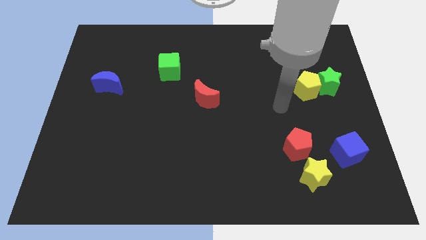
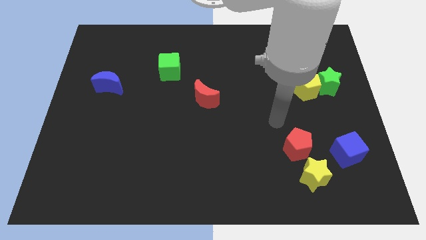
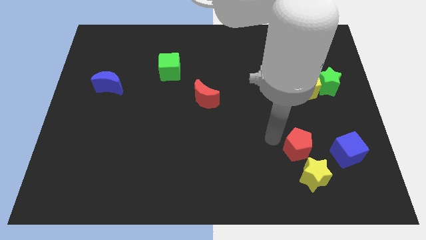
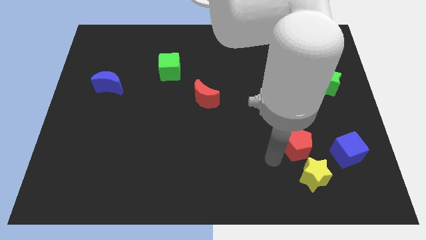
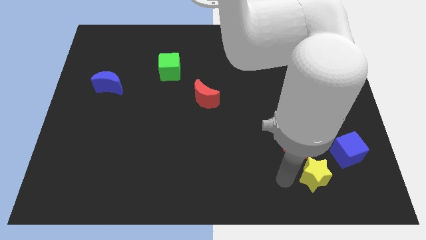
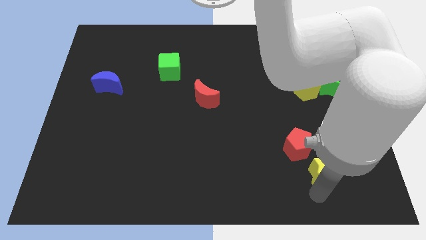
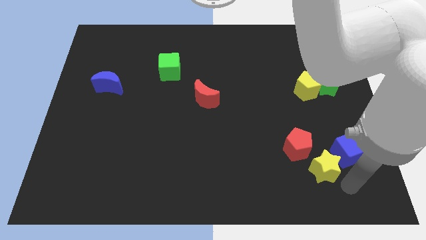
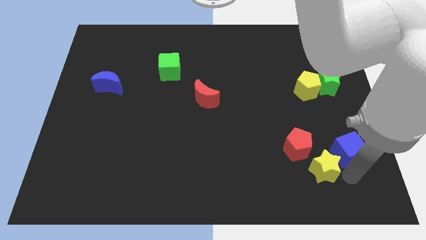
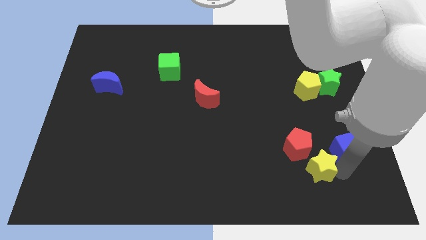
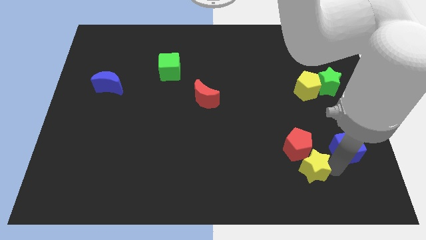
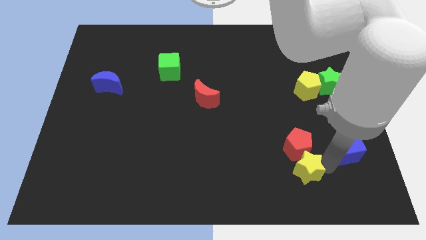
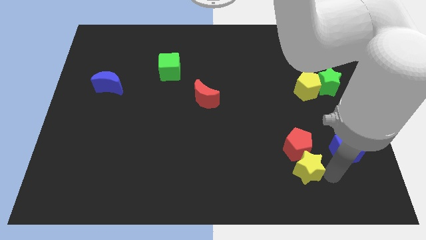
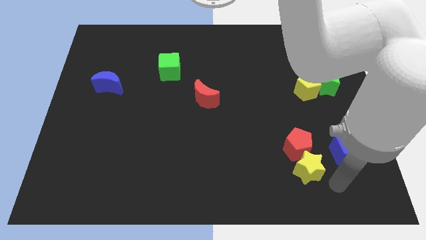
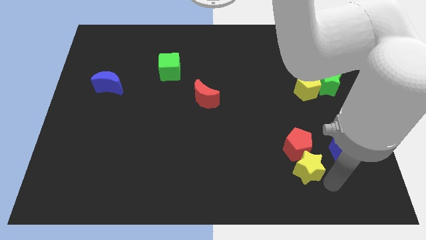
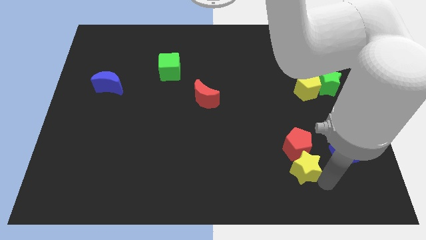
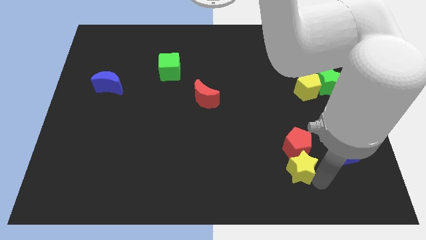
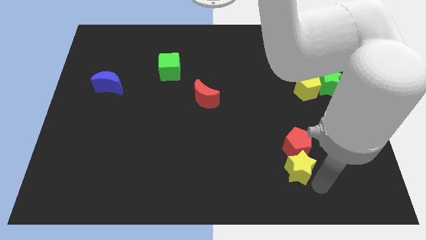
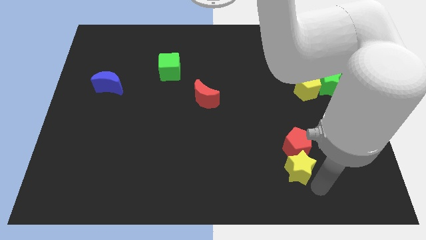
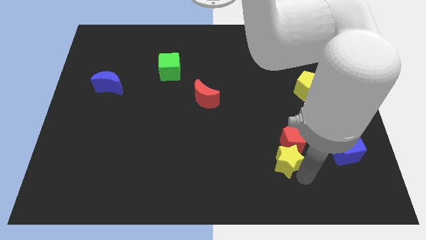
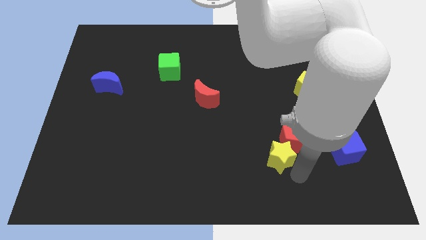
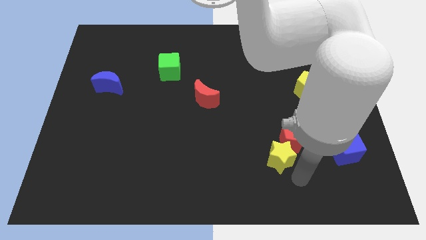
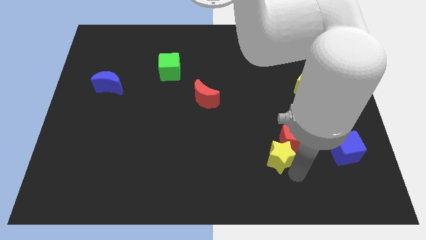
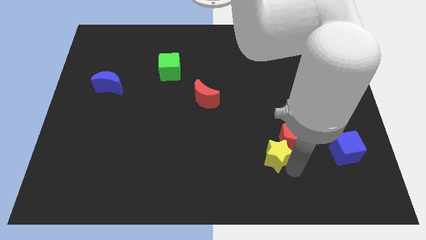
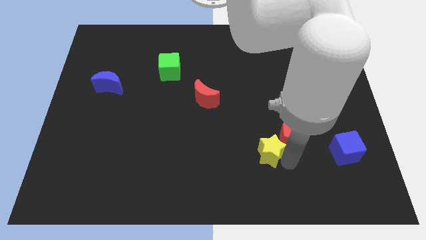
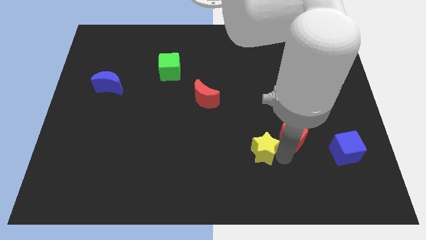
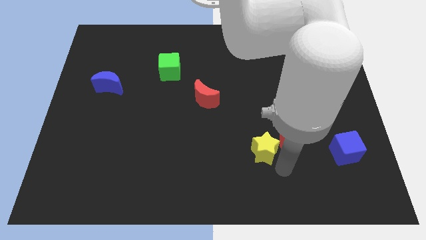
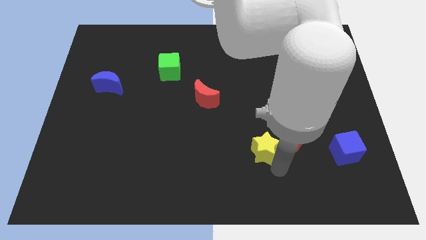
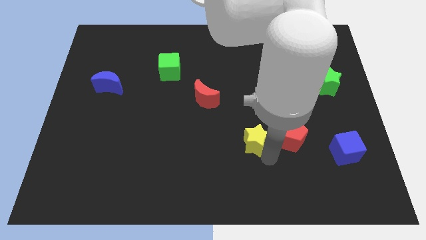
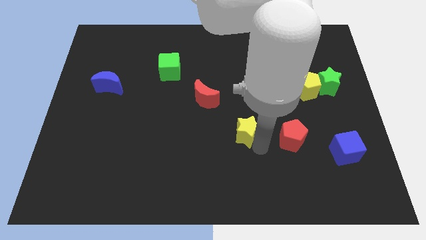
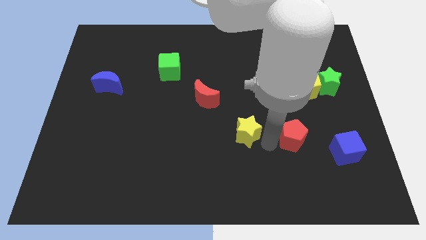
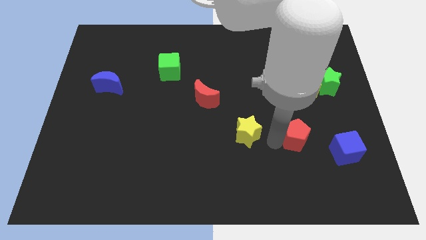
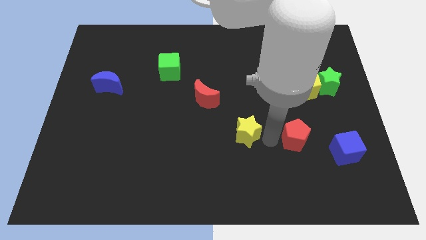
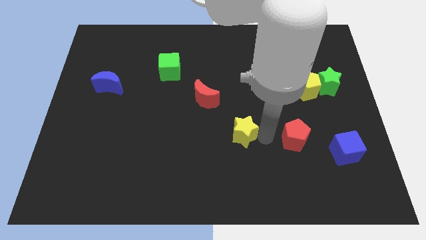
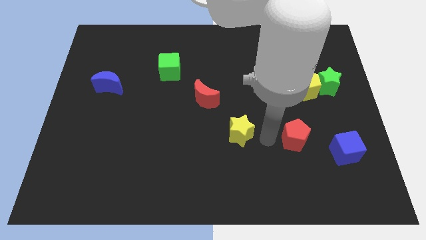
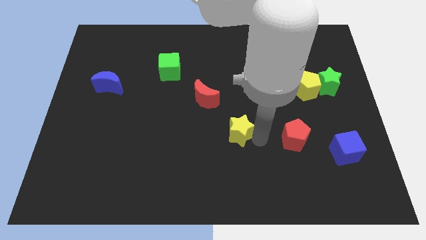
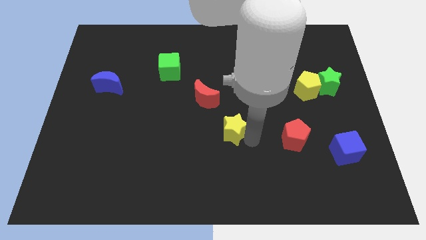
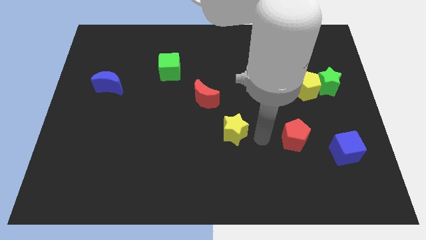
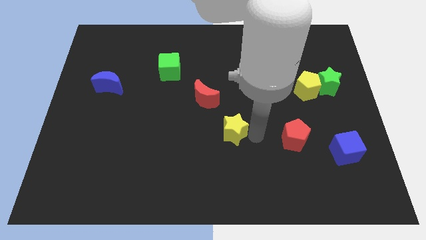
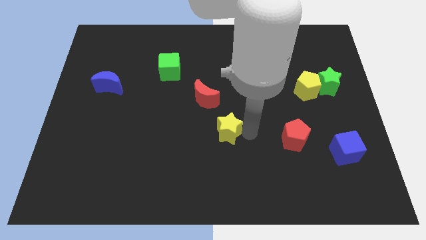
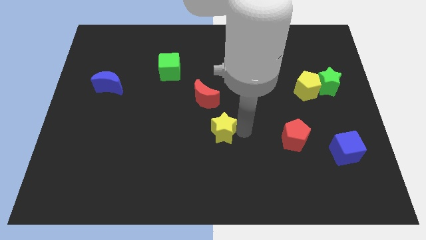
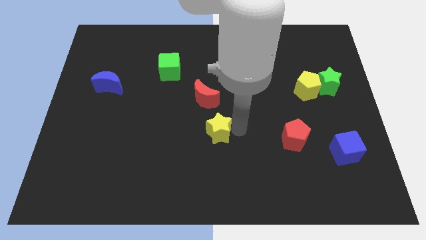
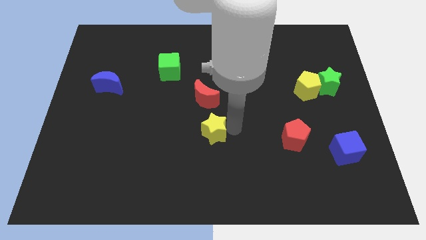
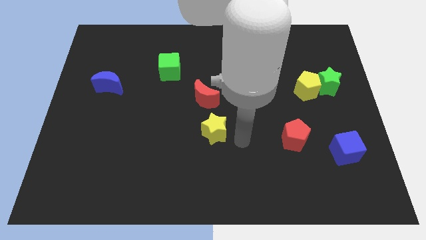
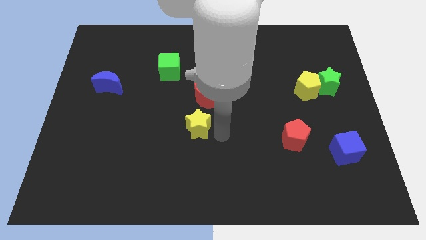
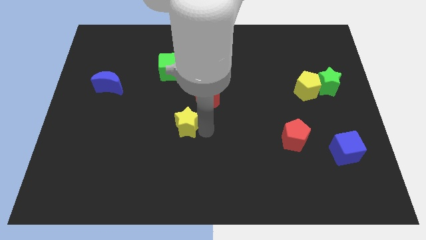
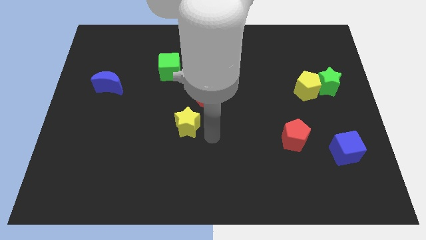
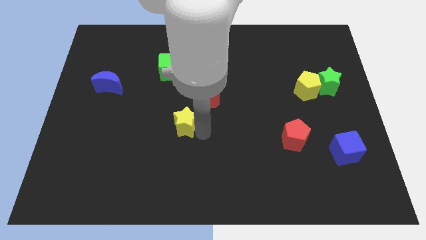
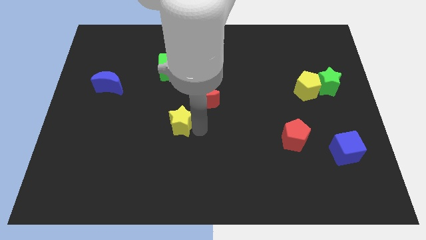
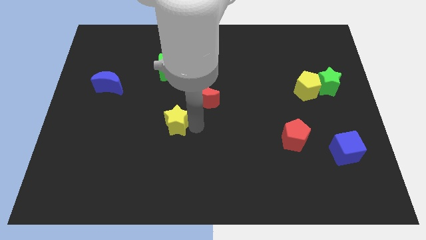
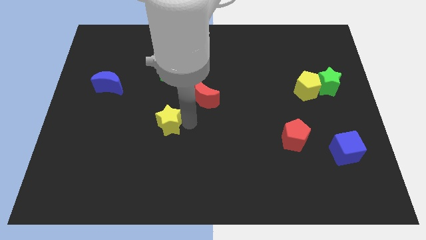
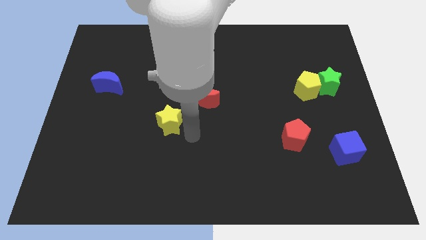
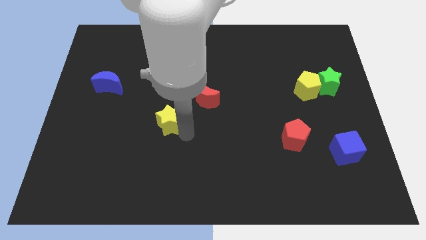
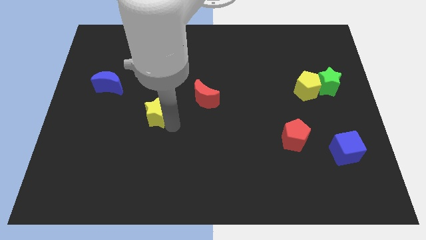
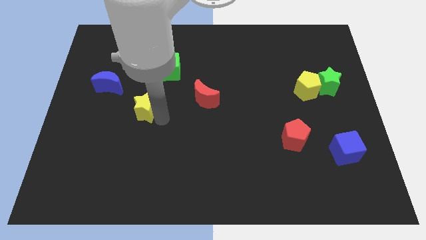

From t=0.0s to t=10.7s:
slide the yellow star to the bottom right side of the blue moon

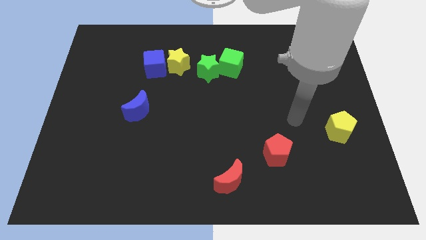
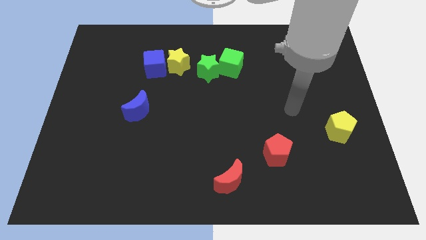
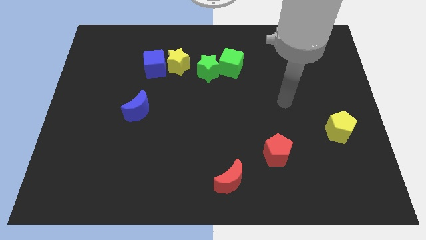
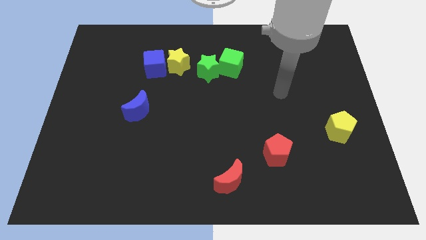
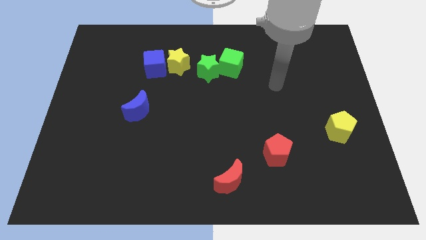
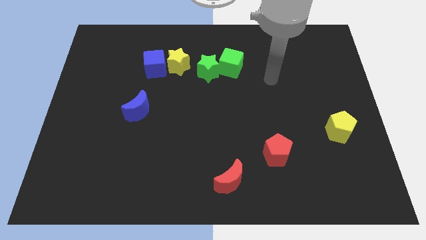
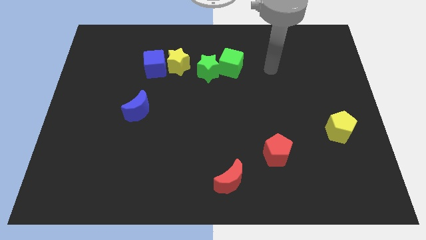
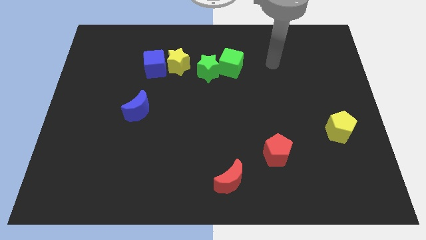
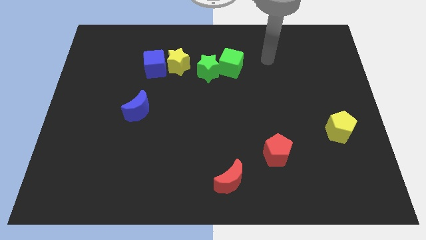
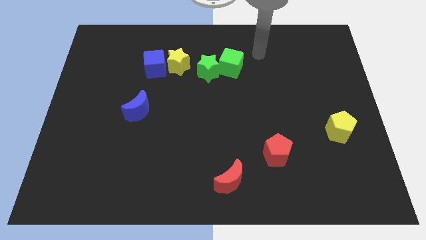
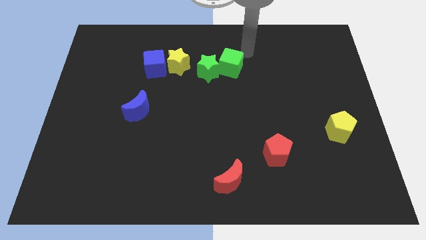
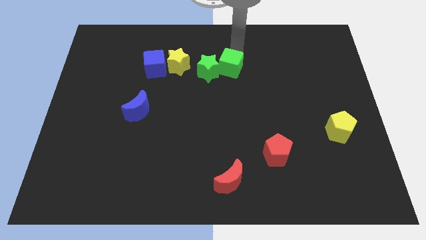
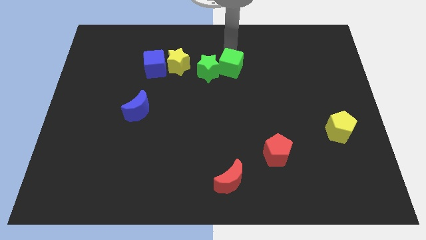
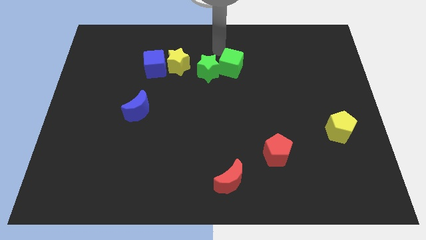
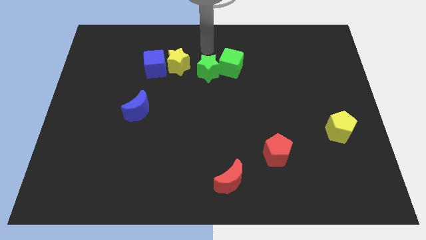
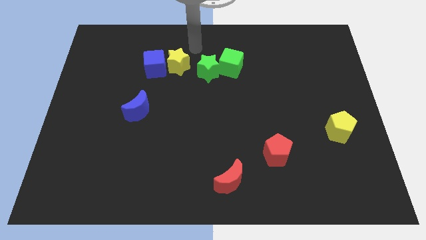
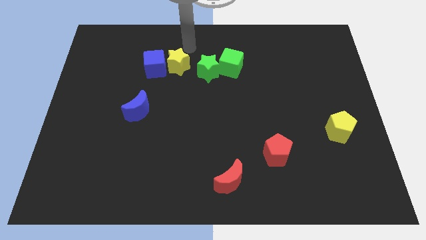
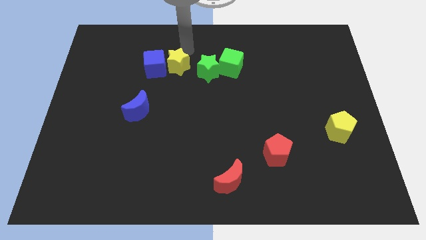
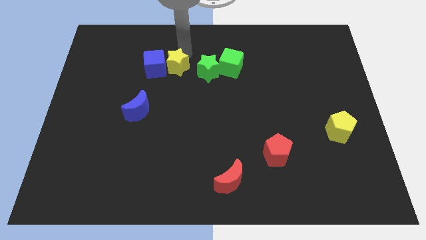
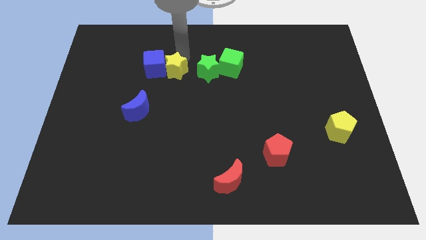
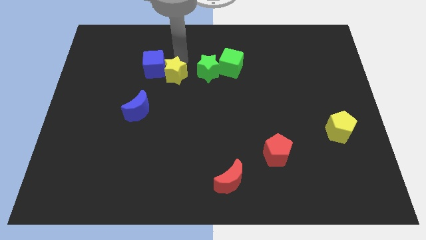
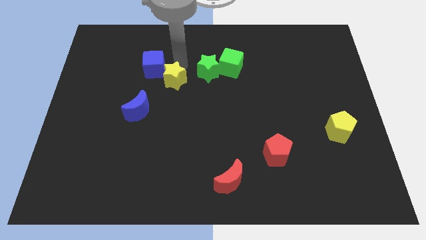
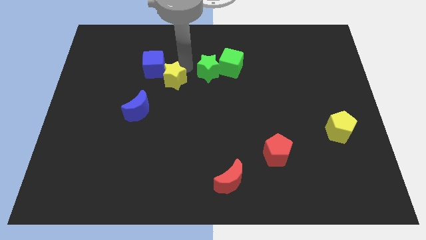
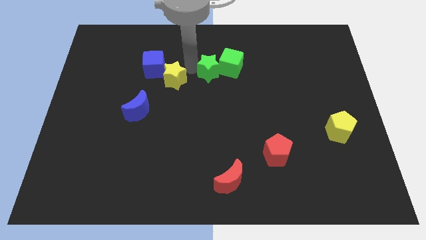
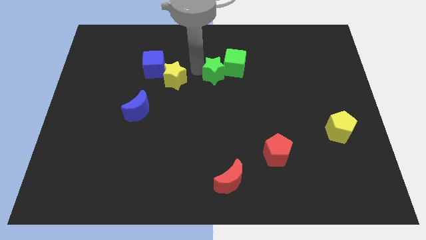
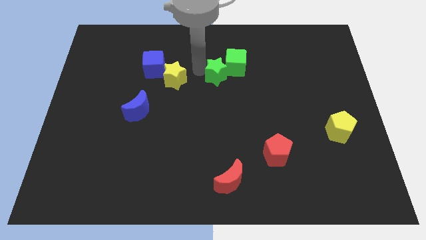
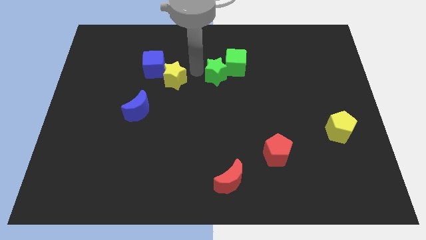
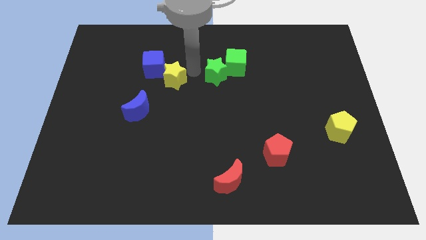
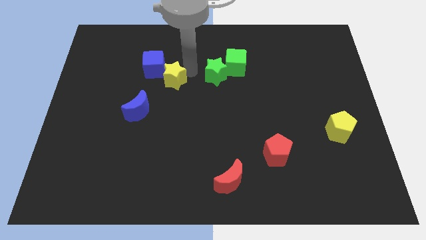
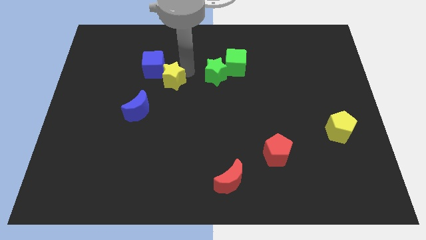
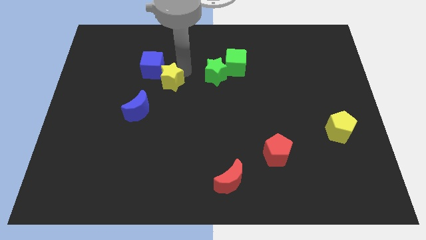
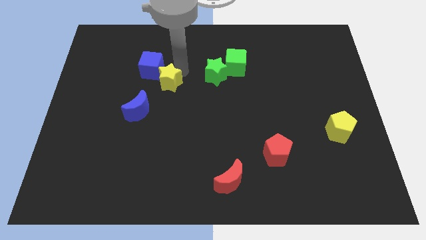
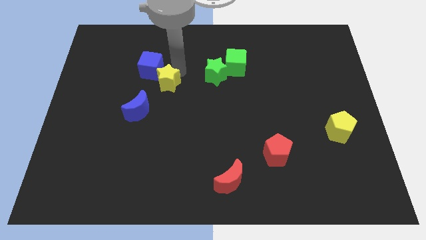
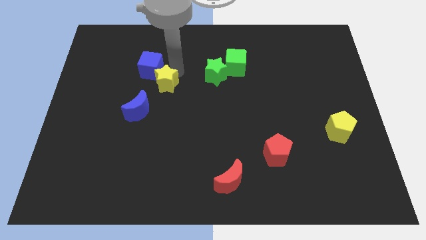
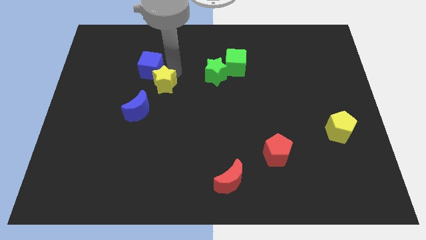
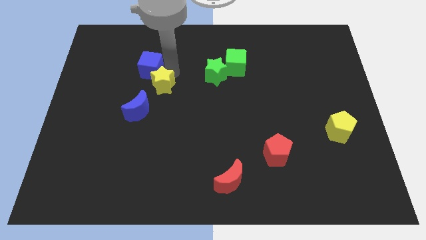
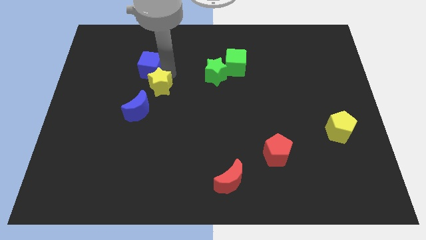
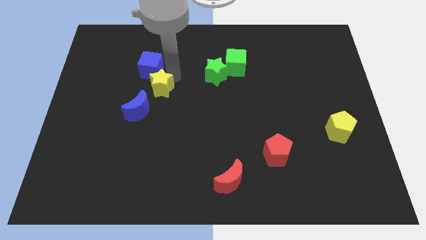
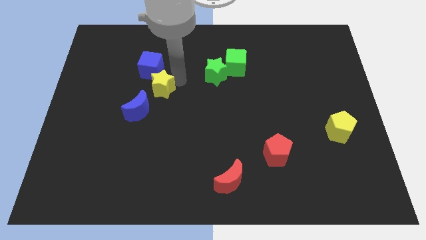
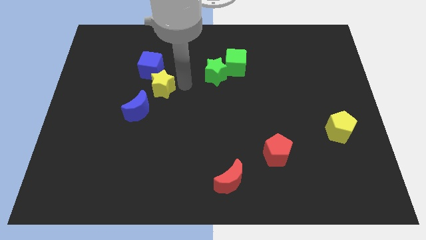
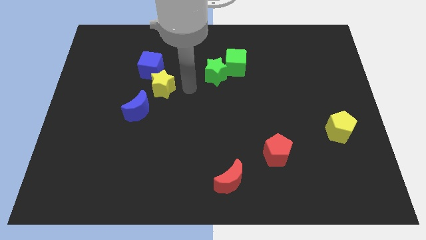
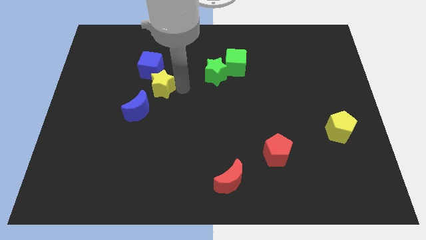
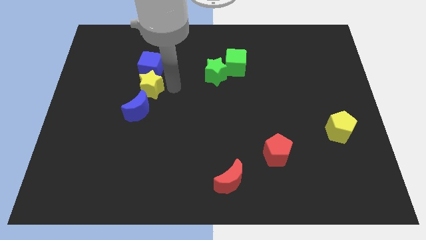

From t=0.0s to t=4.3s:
put the yellow star diagonally down and to the left of the blue cube
